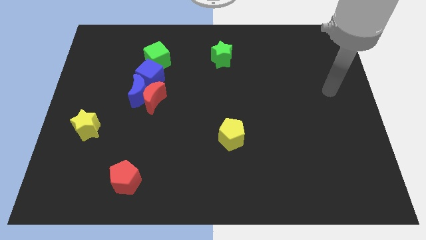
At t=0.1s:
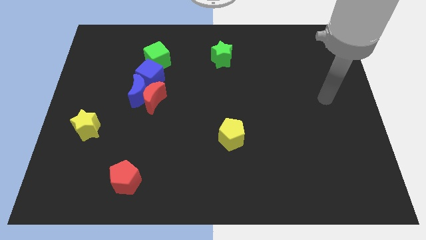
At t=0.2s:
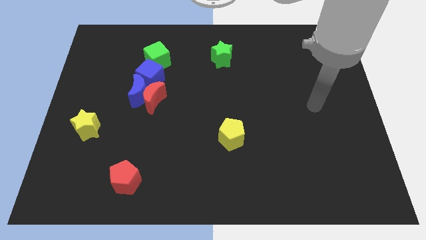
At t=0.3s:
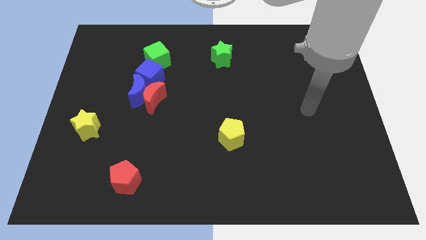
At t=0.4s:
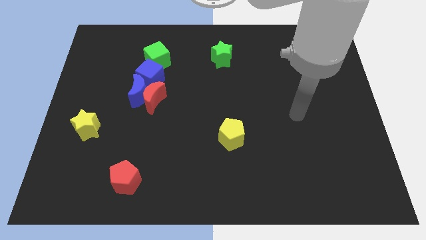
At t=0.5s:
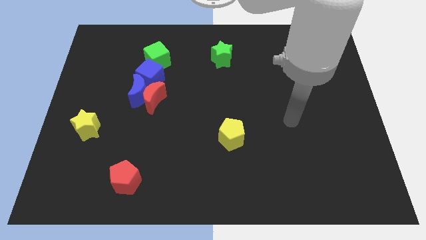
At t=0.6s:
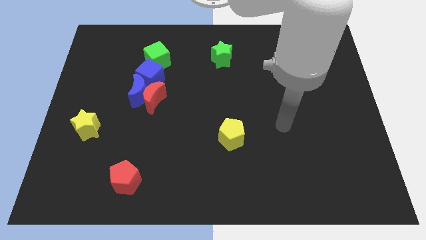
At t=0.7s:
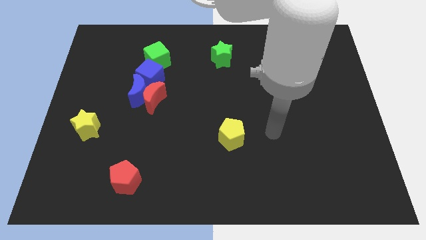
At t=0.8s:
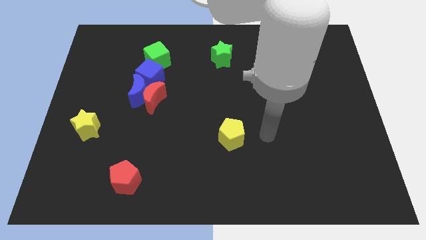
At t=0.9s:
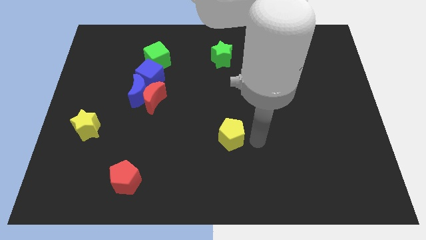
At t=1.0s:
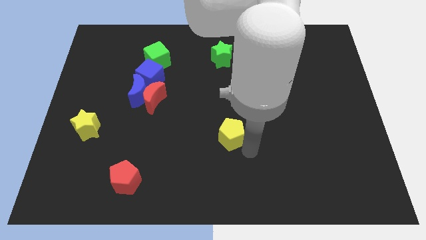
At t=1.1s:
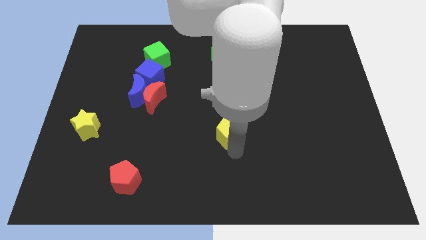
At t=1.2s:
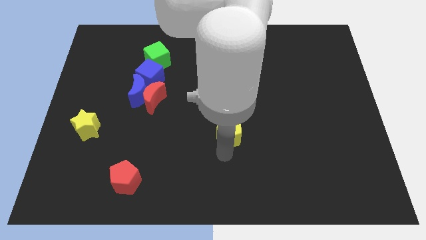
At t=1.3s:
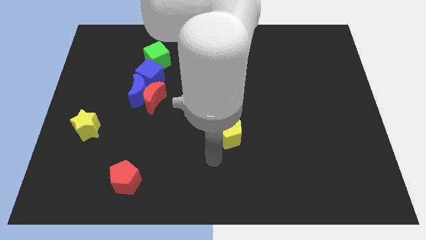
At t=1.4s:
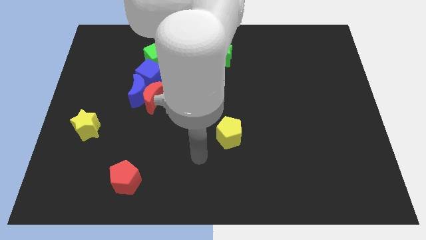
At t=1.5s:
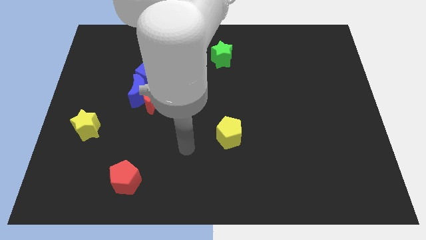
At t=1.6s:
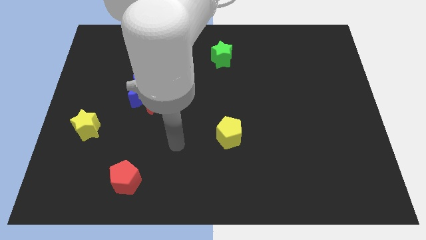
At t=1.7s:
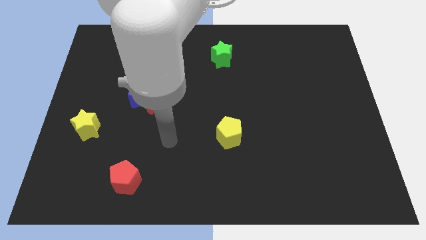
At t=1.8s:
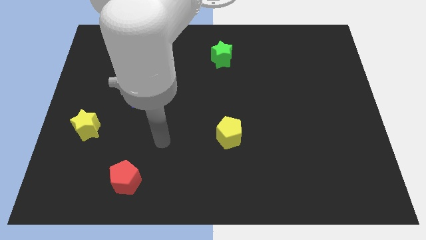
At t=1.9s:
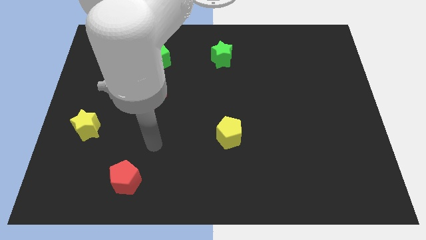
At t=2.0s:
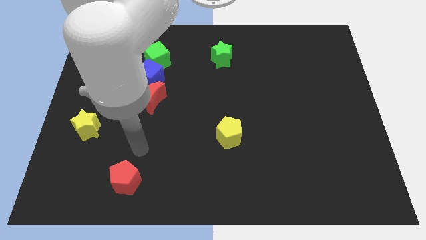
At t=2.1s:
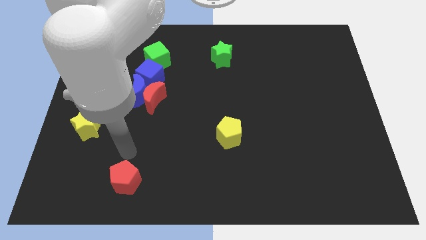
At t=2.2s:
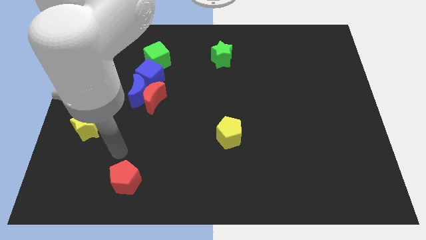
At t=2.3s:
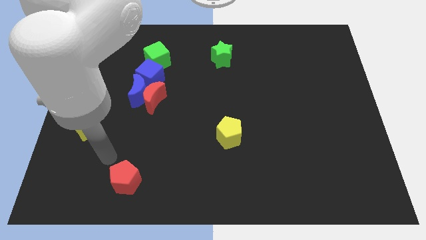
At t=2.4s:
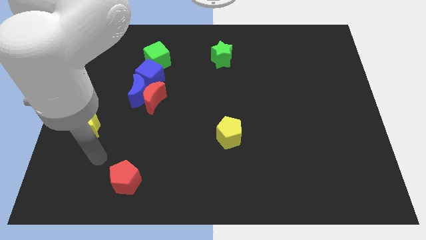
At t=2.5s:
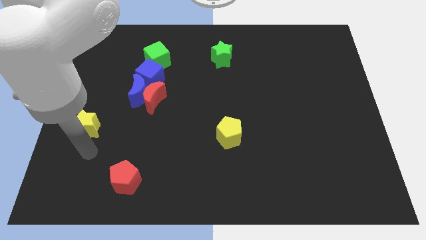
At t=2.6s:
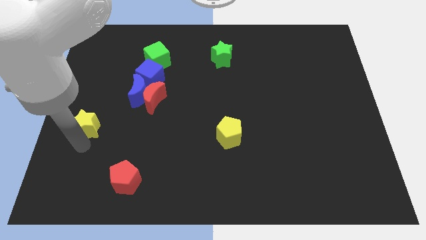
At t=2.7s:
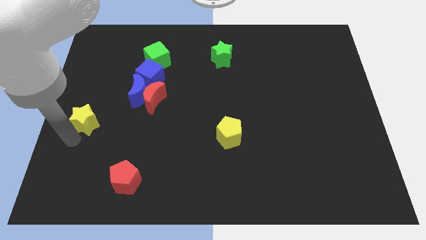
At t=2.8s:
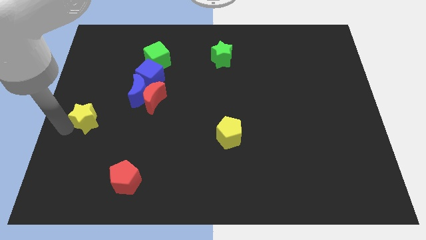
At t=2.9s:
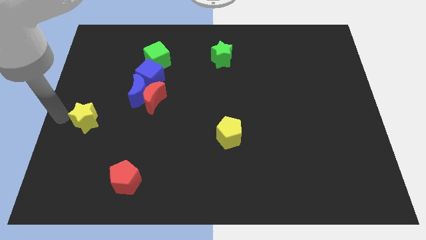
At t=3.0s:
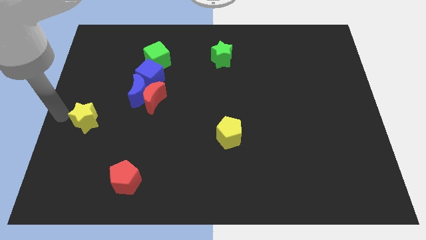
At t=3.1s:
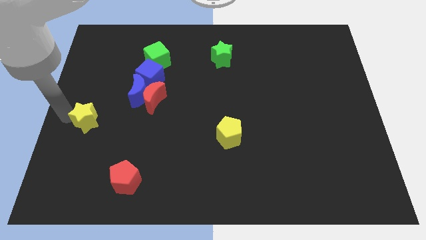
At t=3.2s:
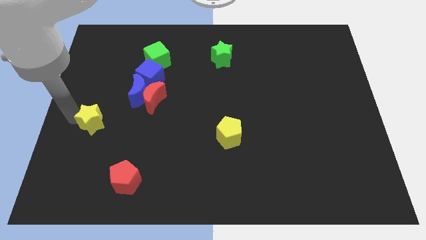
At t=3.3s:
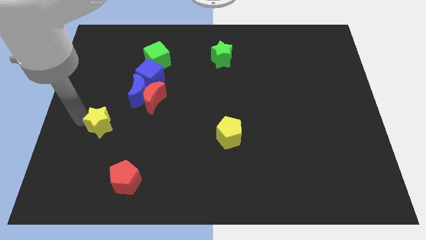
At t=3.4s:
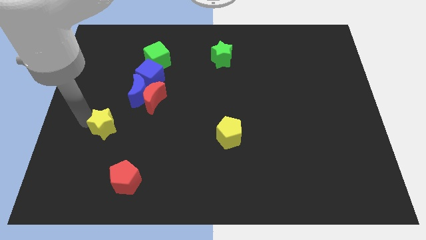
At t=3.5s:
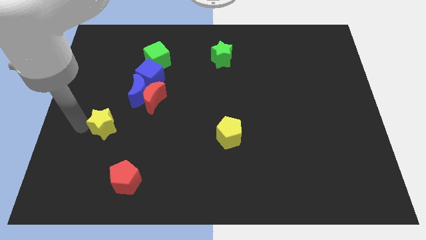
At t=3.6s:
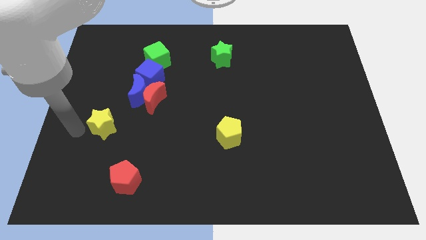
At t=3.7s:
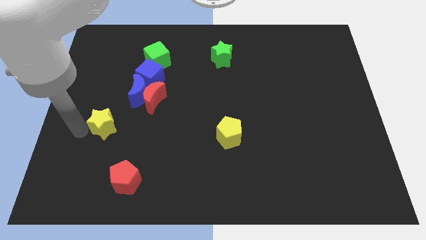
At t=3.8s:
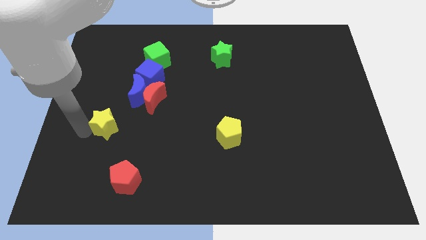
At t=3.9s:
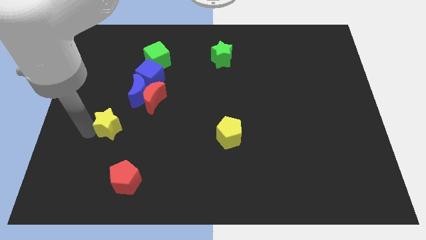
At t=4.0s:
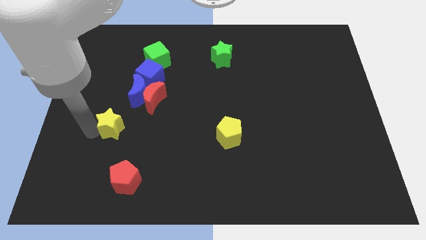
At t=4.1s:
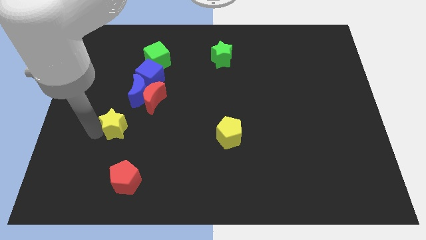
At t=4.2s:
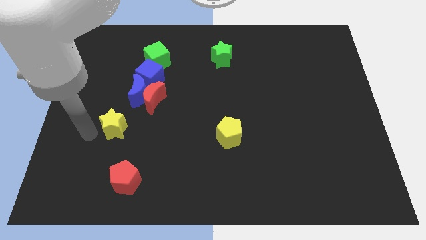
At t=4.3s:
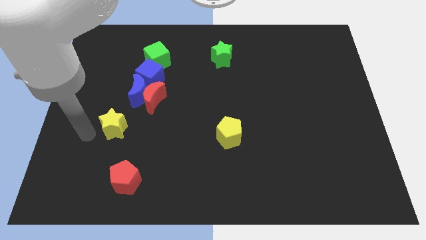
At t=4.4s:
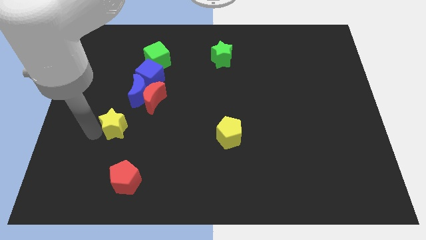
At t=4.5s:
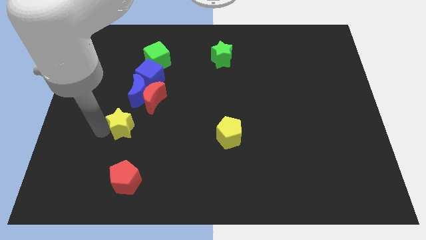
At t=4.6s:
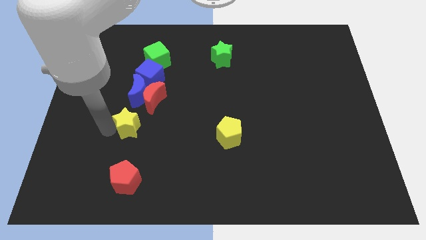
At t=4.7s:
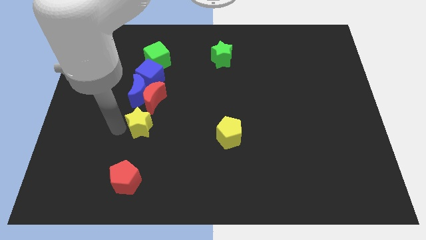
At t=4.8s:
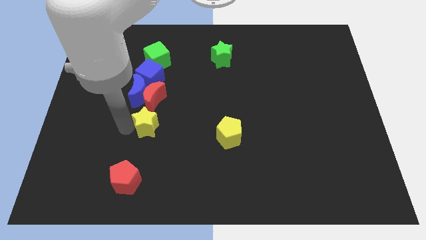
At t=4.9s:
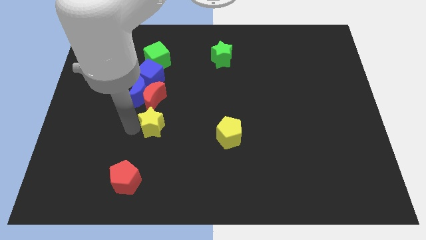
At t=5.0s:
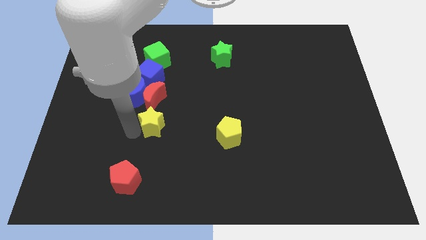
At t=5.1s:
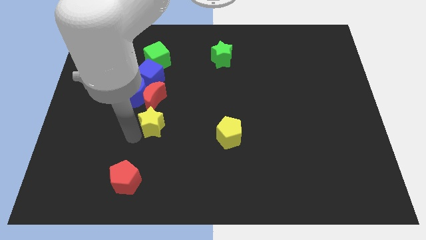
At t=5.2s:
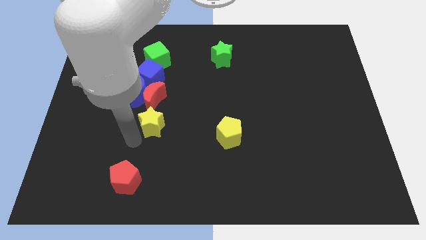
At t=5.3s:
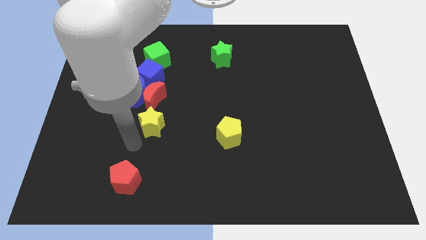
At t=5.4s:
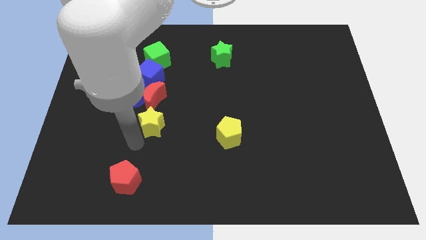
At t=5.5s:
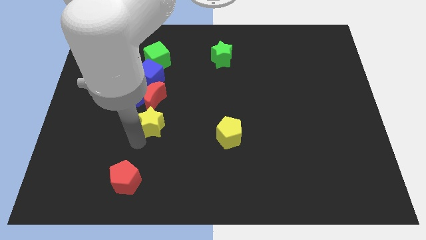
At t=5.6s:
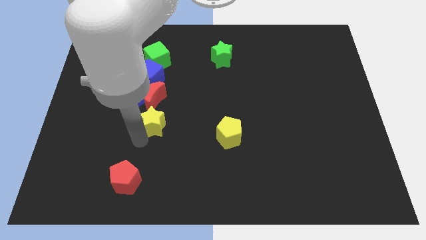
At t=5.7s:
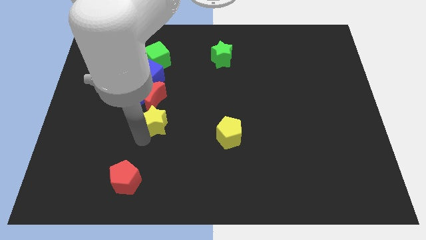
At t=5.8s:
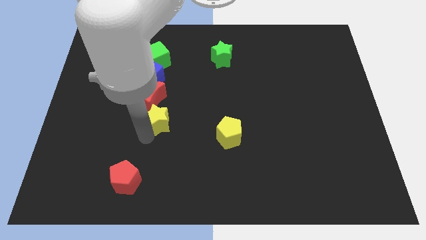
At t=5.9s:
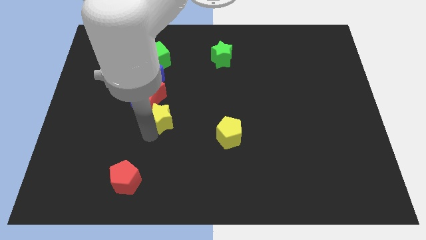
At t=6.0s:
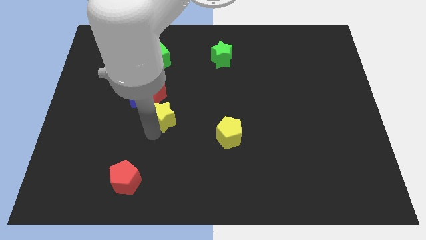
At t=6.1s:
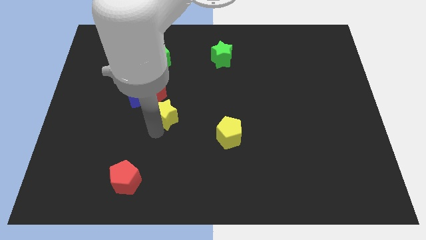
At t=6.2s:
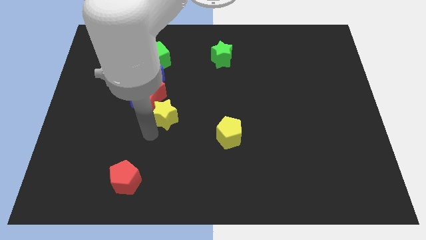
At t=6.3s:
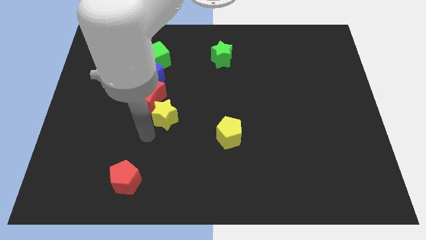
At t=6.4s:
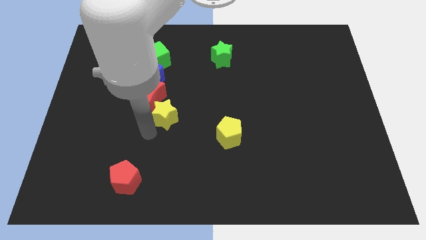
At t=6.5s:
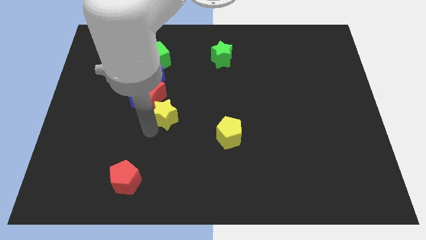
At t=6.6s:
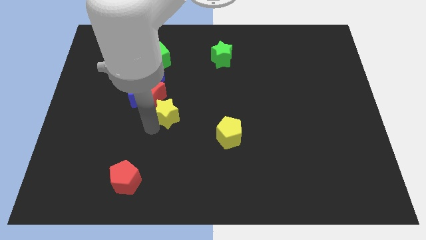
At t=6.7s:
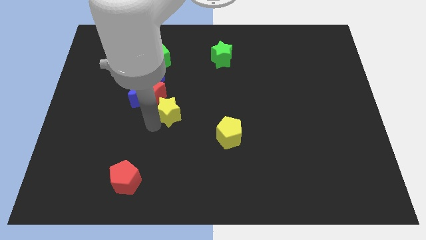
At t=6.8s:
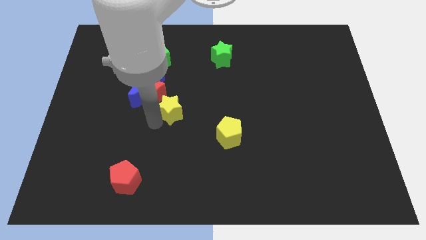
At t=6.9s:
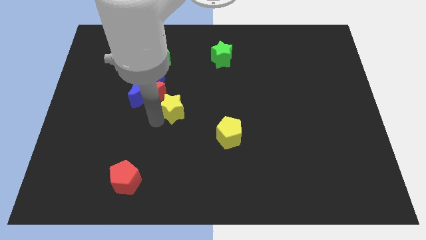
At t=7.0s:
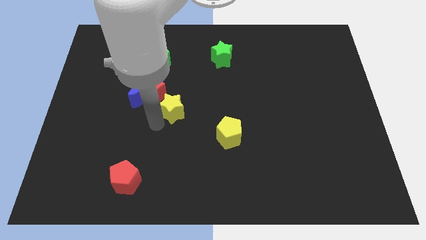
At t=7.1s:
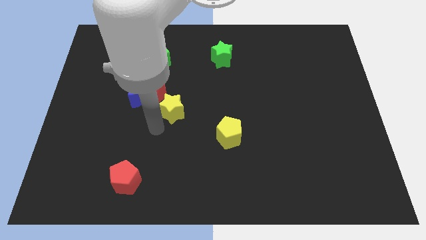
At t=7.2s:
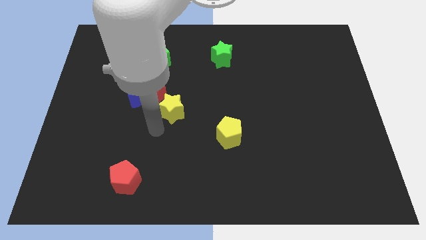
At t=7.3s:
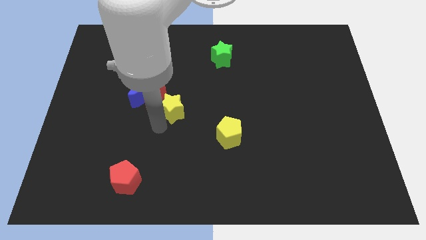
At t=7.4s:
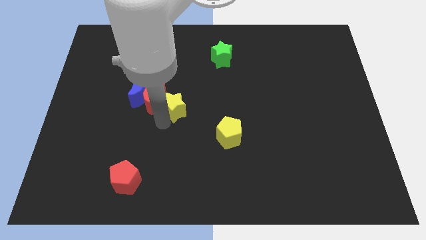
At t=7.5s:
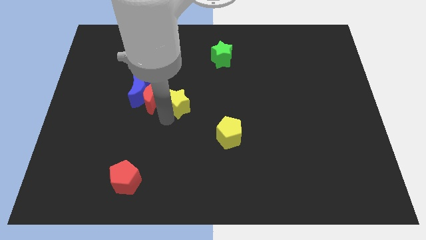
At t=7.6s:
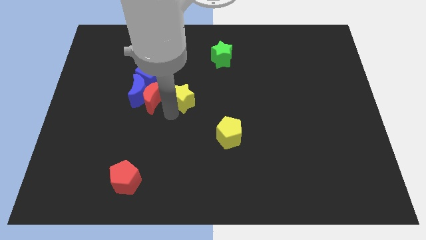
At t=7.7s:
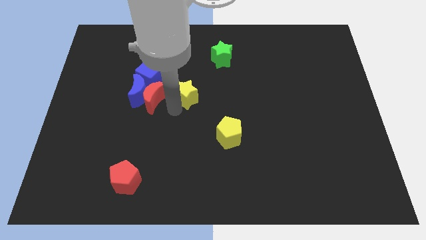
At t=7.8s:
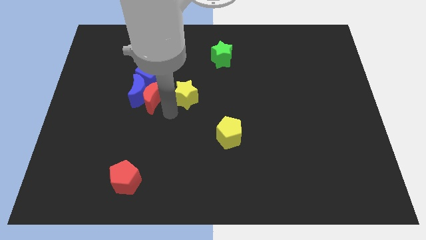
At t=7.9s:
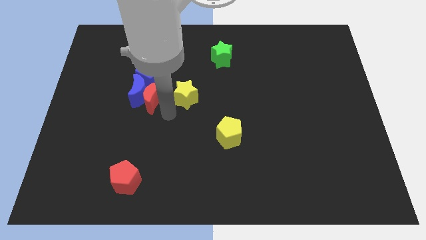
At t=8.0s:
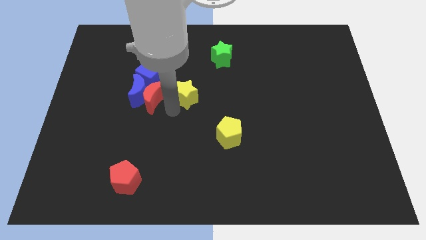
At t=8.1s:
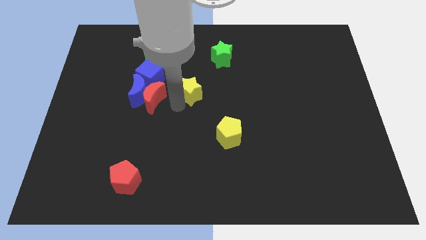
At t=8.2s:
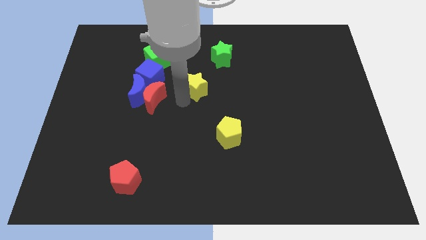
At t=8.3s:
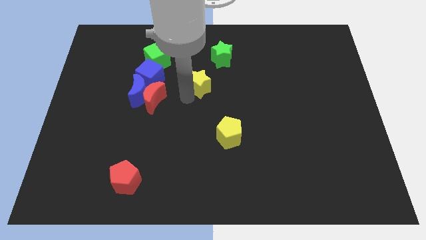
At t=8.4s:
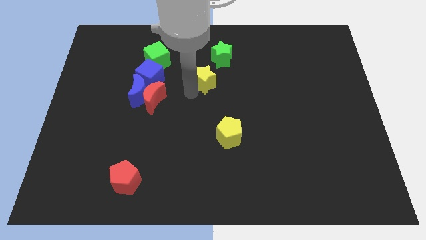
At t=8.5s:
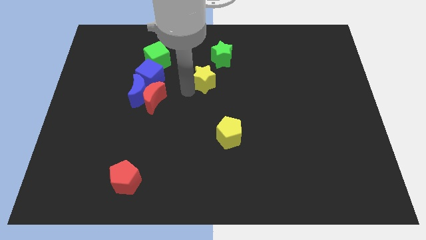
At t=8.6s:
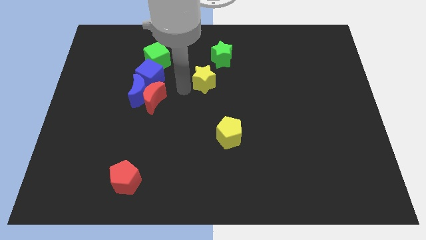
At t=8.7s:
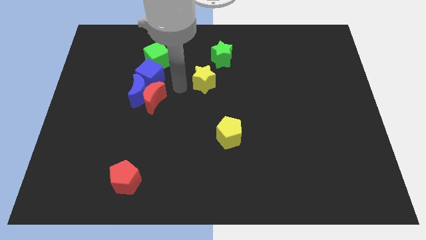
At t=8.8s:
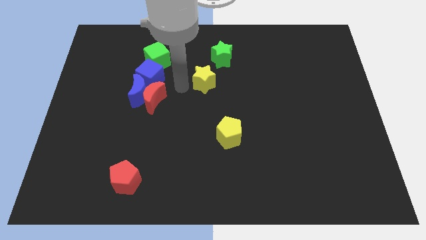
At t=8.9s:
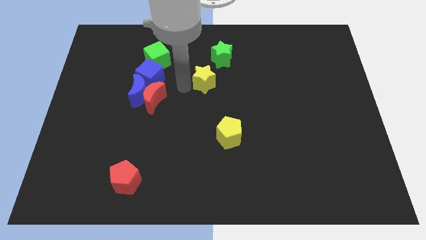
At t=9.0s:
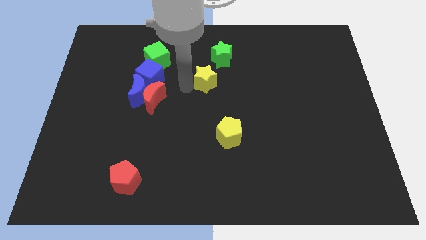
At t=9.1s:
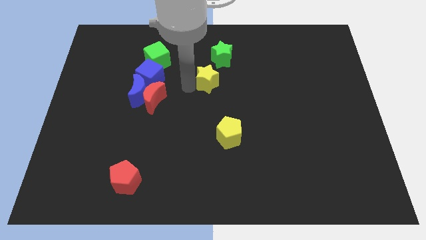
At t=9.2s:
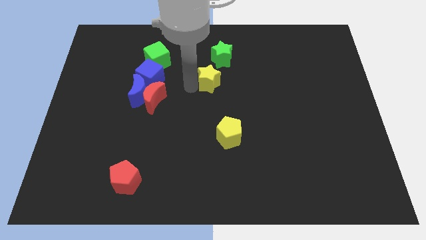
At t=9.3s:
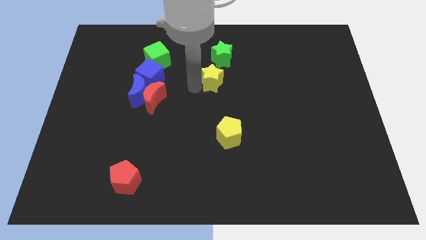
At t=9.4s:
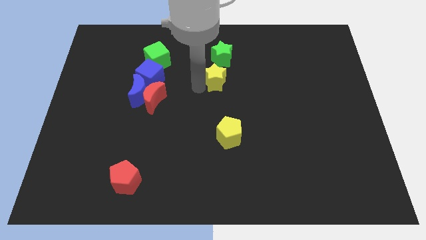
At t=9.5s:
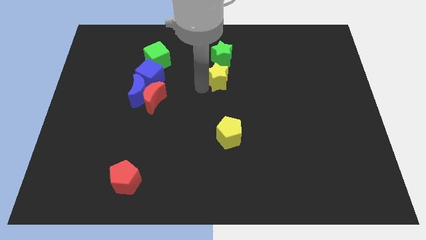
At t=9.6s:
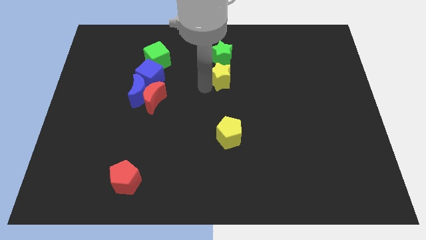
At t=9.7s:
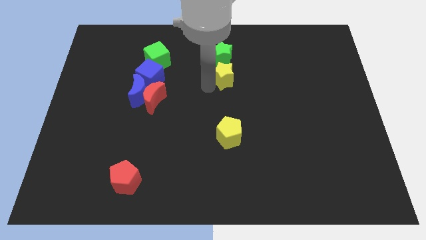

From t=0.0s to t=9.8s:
put the yellow star diagonally down and to the right of the green star
